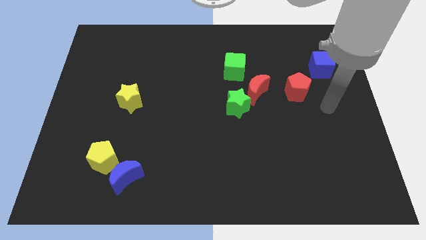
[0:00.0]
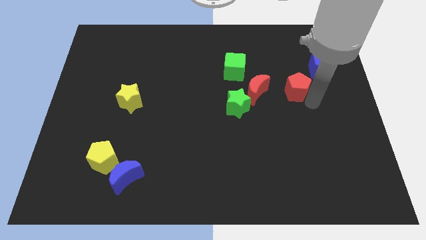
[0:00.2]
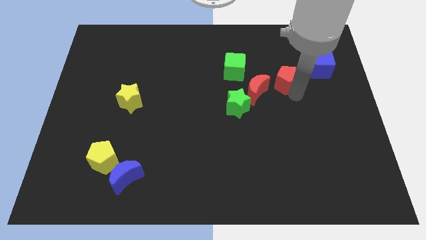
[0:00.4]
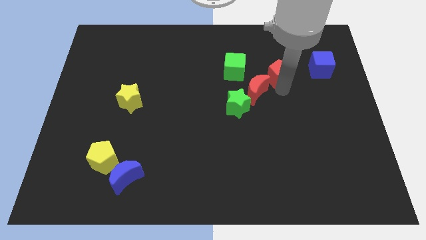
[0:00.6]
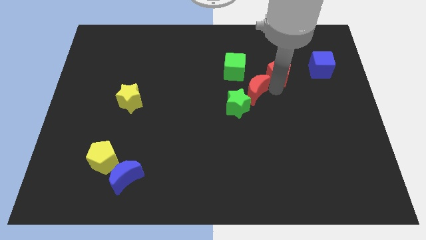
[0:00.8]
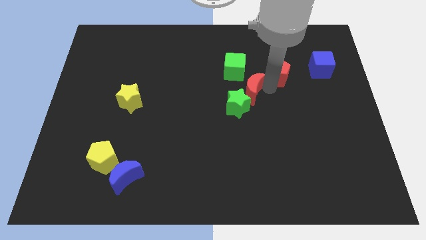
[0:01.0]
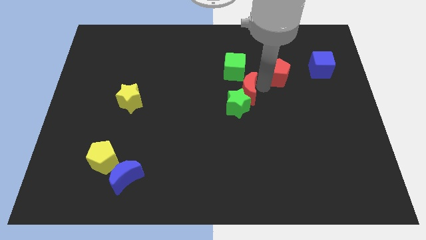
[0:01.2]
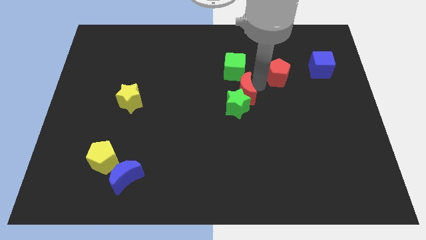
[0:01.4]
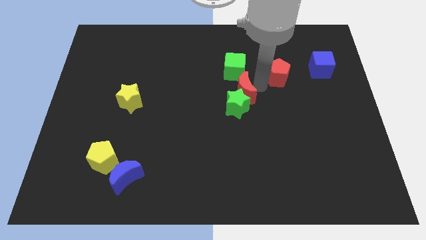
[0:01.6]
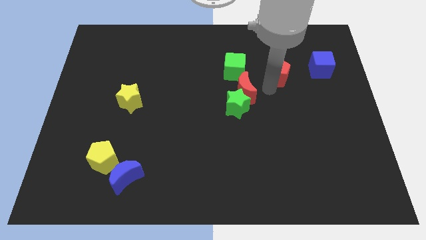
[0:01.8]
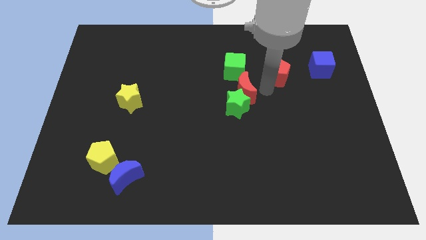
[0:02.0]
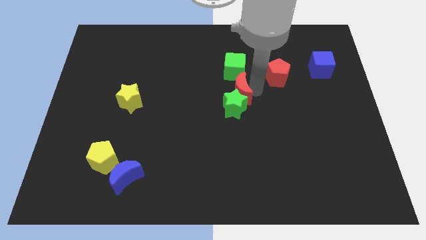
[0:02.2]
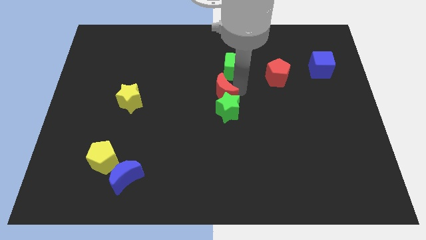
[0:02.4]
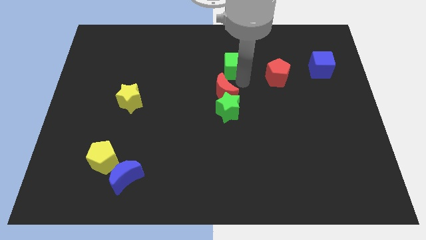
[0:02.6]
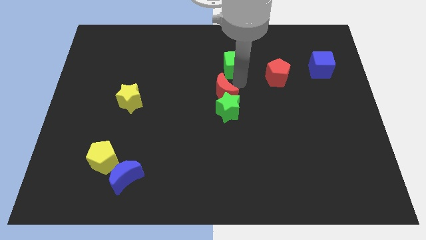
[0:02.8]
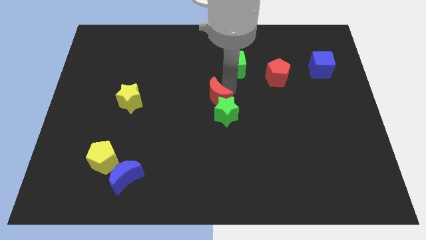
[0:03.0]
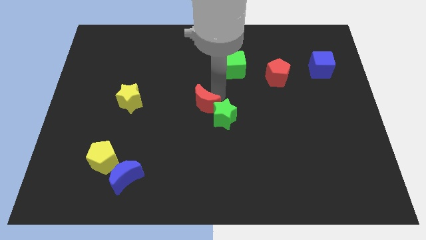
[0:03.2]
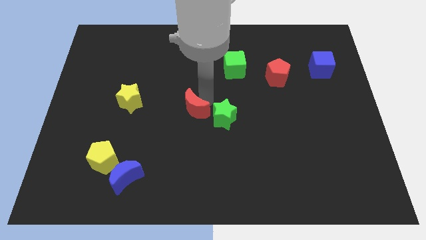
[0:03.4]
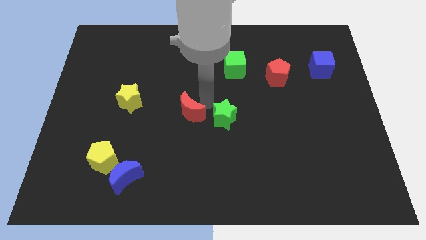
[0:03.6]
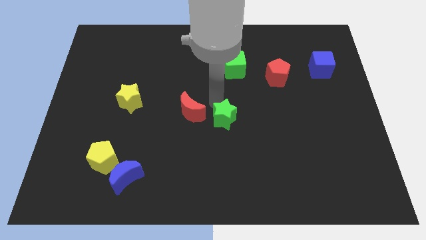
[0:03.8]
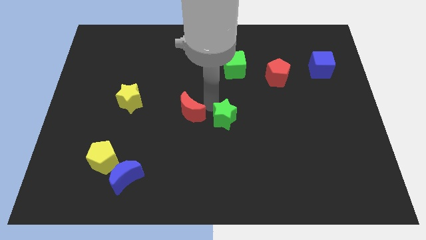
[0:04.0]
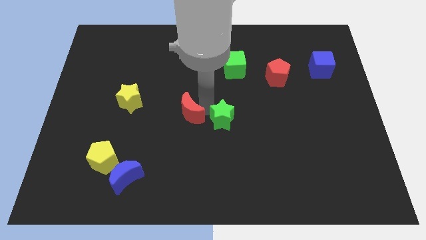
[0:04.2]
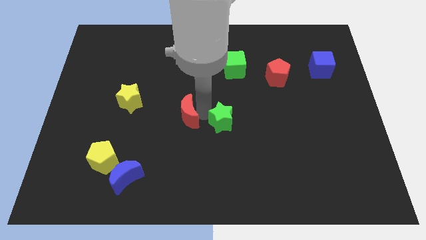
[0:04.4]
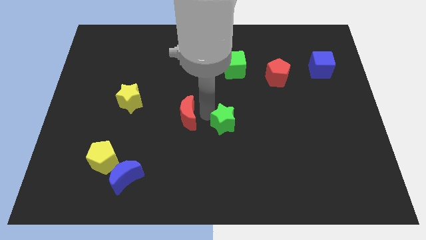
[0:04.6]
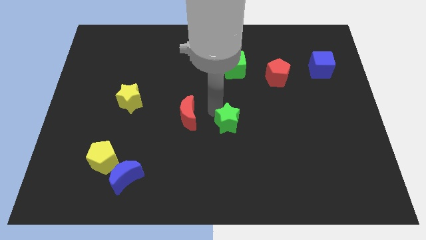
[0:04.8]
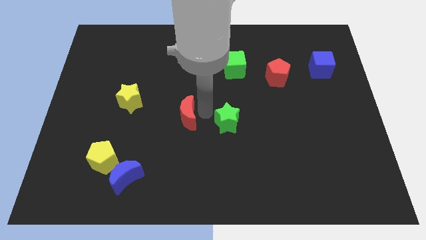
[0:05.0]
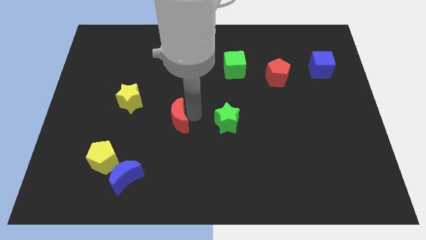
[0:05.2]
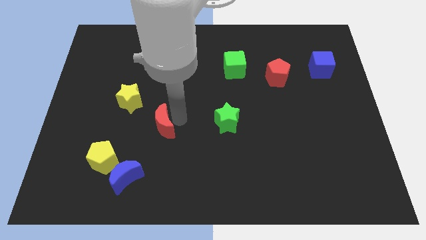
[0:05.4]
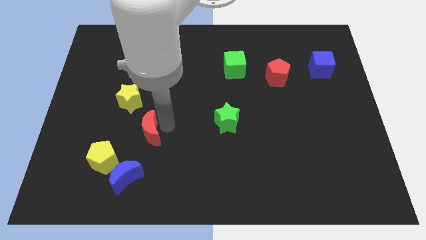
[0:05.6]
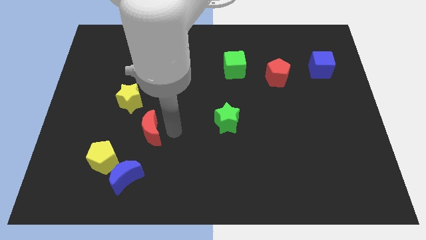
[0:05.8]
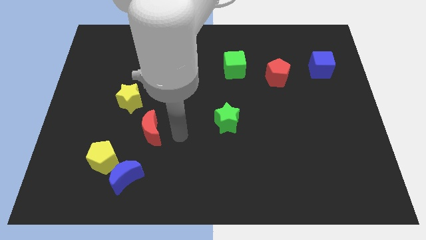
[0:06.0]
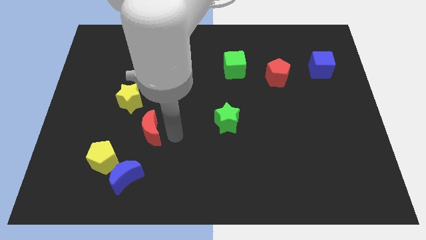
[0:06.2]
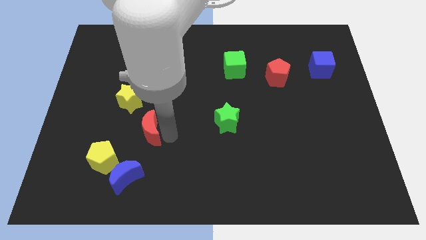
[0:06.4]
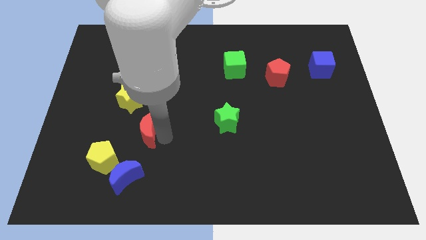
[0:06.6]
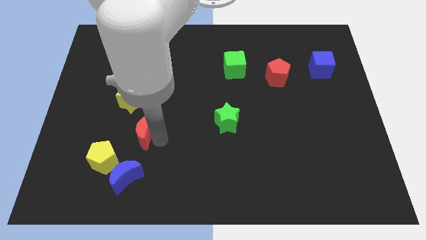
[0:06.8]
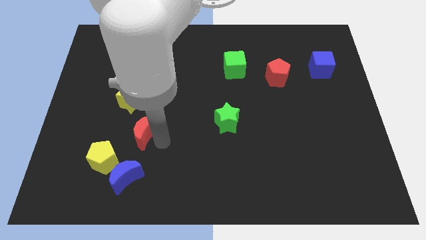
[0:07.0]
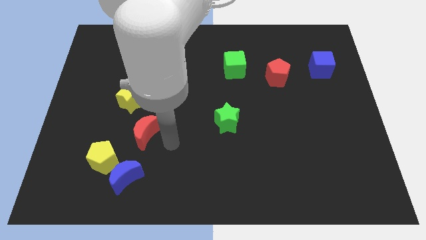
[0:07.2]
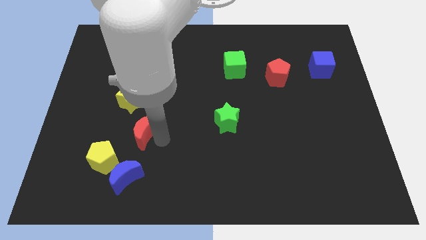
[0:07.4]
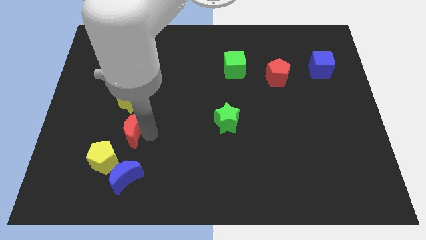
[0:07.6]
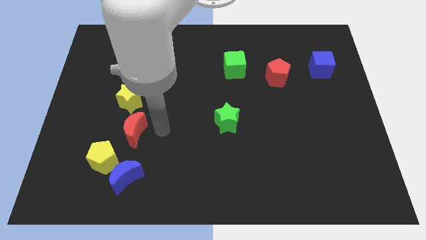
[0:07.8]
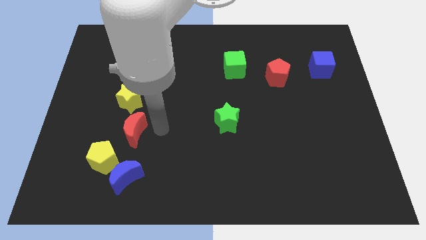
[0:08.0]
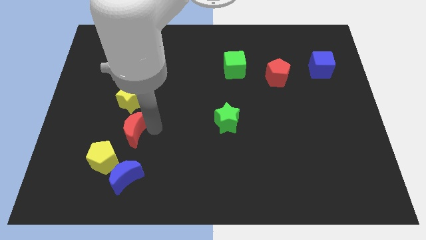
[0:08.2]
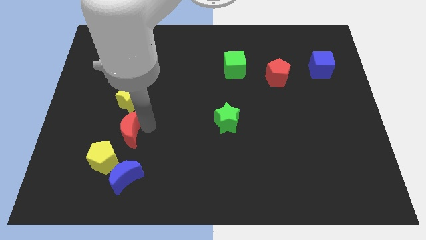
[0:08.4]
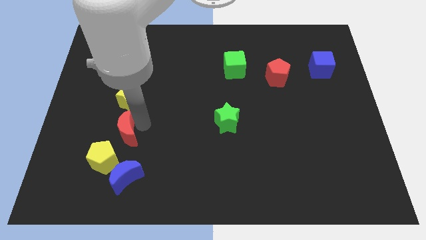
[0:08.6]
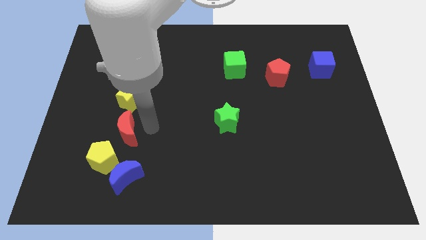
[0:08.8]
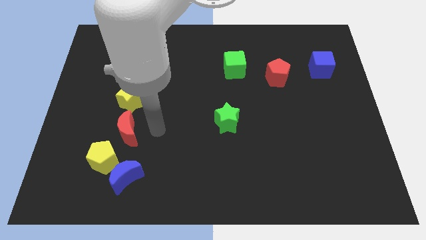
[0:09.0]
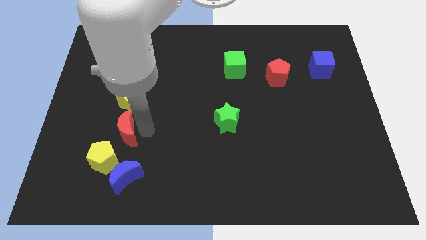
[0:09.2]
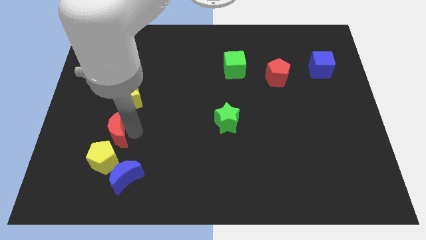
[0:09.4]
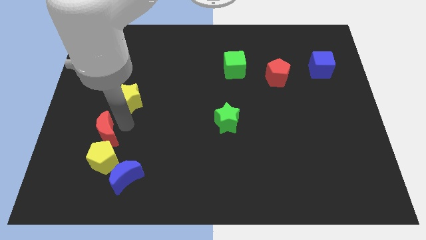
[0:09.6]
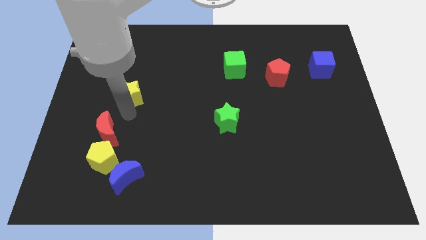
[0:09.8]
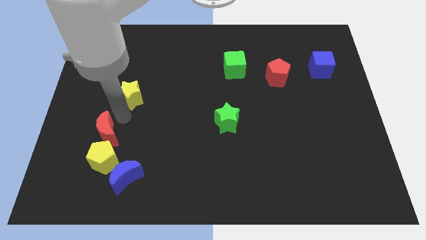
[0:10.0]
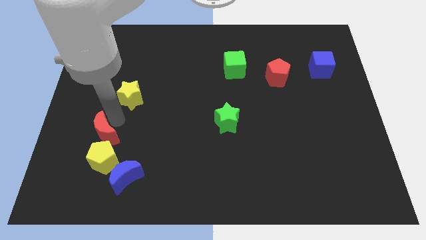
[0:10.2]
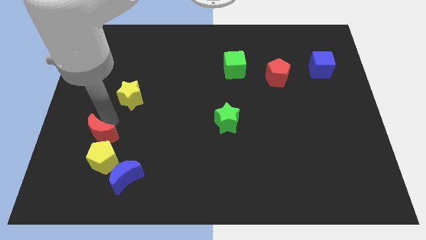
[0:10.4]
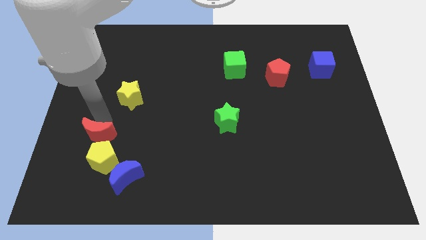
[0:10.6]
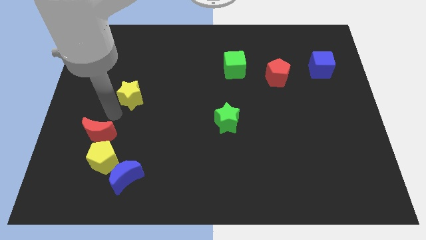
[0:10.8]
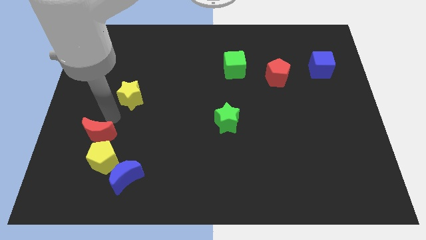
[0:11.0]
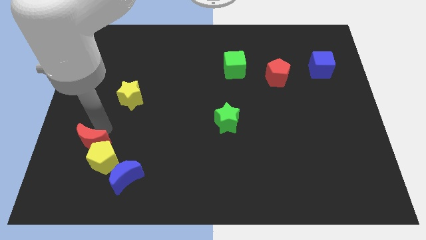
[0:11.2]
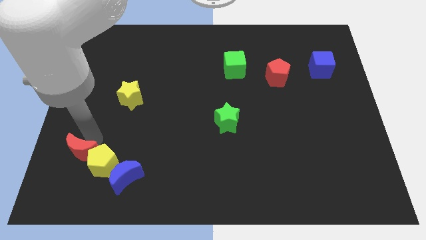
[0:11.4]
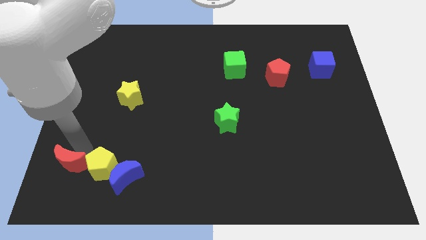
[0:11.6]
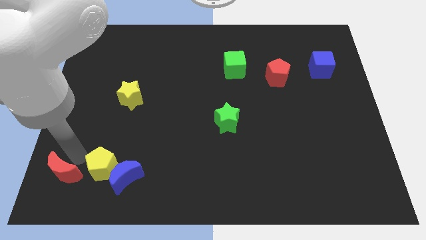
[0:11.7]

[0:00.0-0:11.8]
move the red moon to the bottom left
